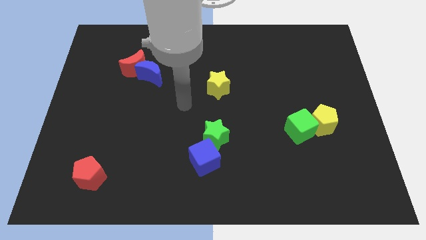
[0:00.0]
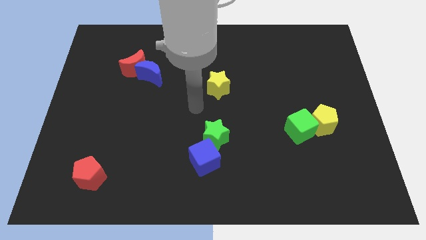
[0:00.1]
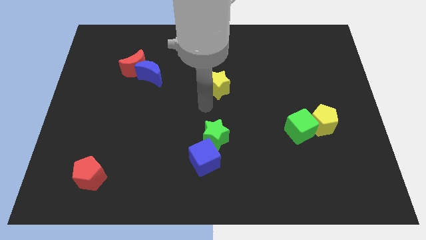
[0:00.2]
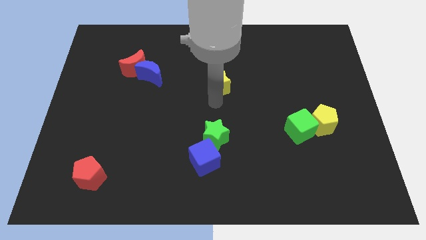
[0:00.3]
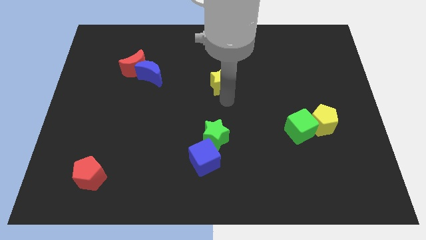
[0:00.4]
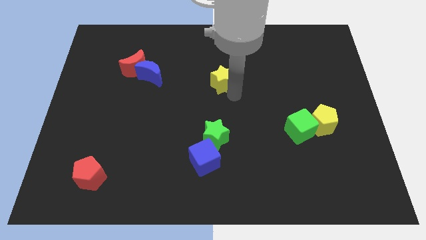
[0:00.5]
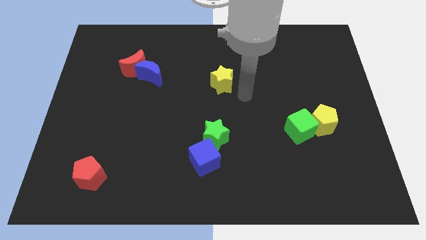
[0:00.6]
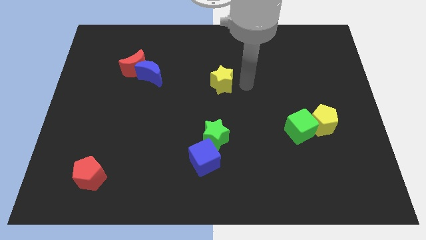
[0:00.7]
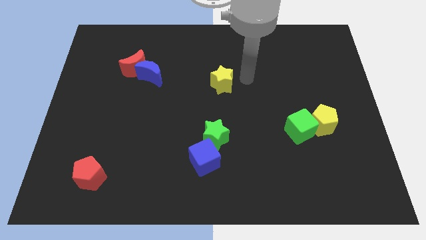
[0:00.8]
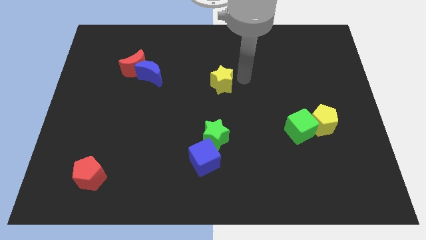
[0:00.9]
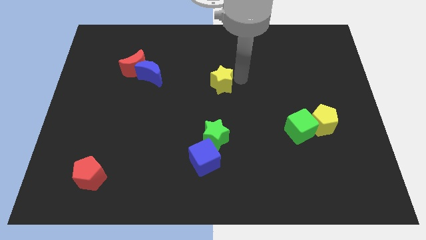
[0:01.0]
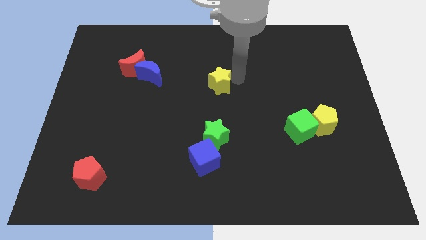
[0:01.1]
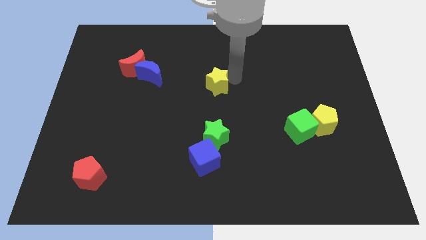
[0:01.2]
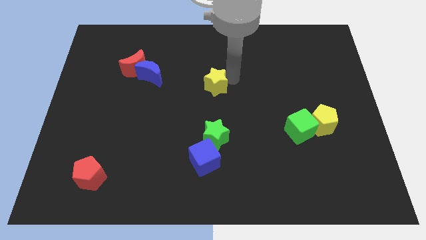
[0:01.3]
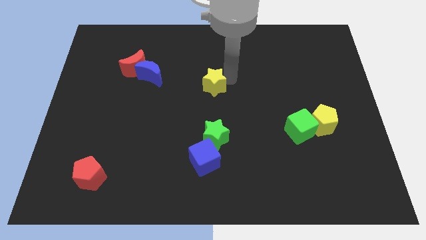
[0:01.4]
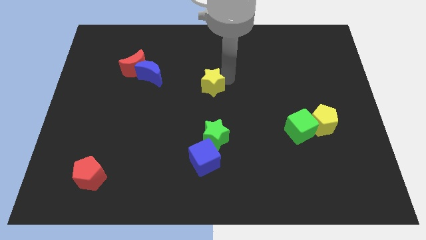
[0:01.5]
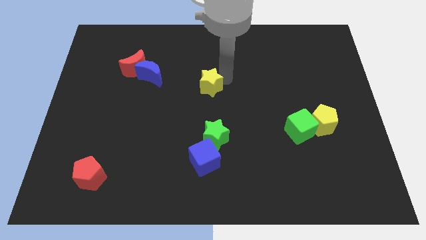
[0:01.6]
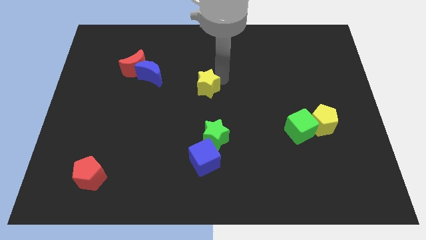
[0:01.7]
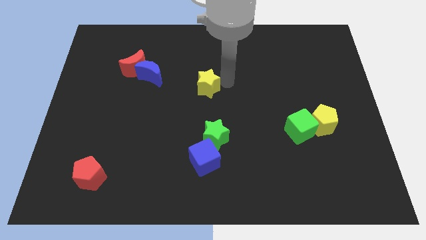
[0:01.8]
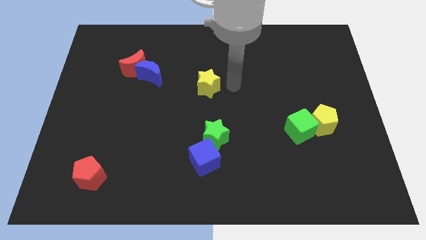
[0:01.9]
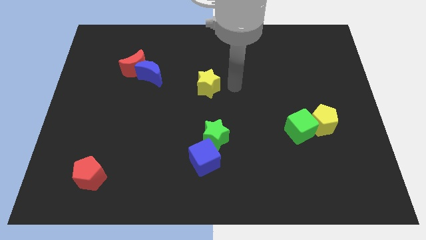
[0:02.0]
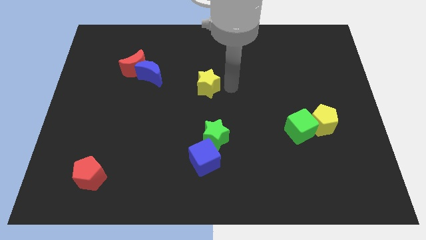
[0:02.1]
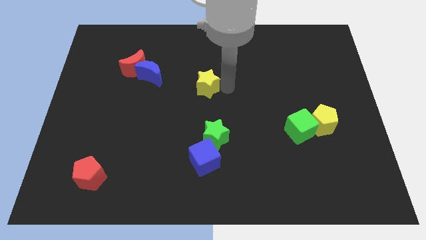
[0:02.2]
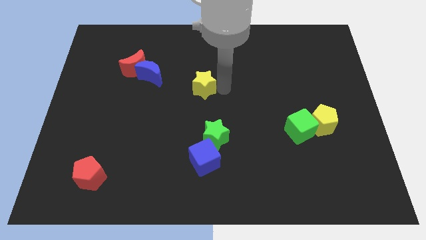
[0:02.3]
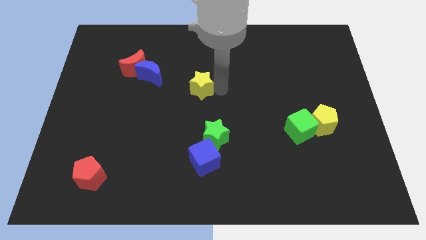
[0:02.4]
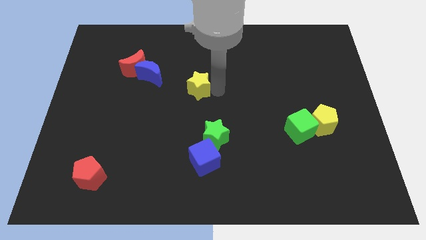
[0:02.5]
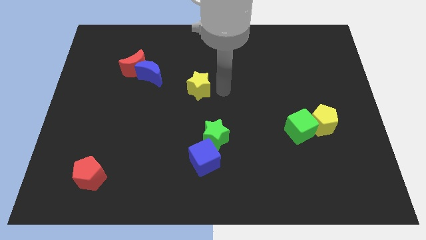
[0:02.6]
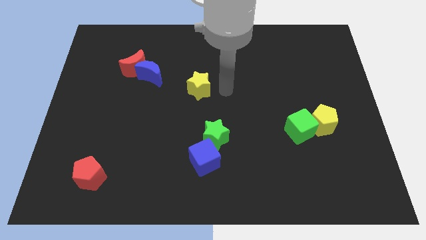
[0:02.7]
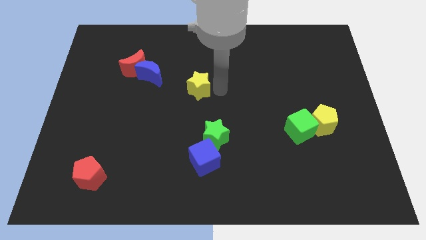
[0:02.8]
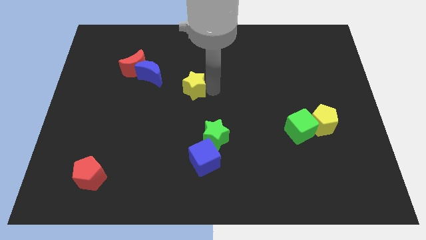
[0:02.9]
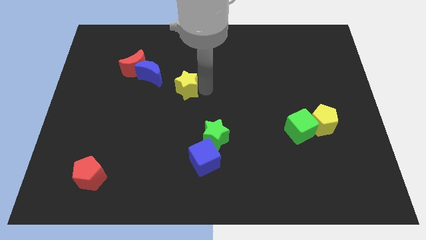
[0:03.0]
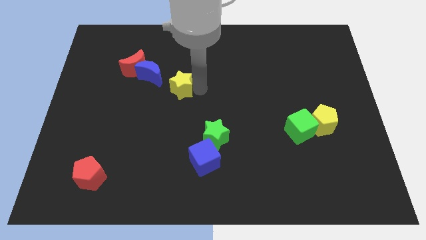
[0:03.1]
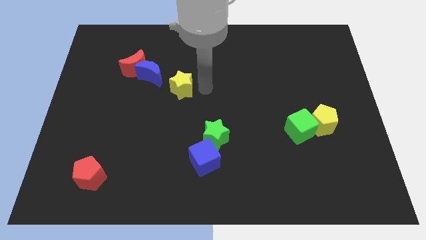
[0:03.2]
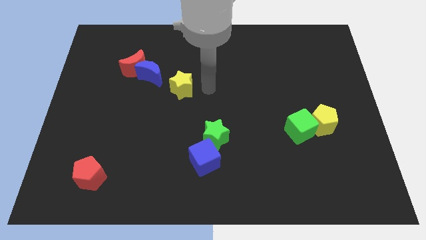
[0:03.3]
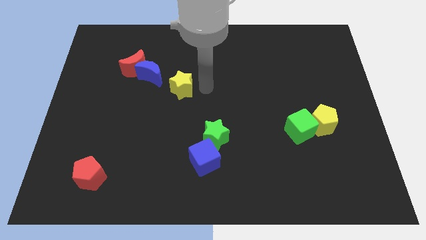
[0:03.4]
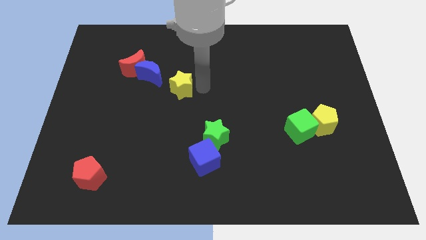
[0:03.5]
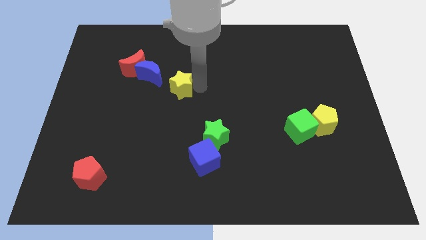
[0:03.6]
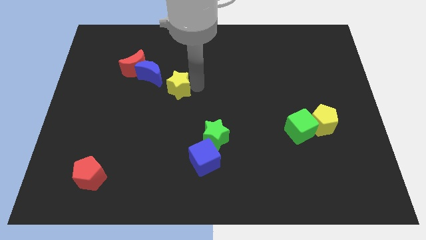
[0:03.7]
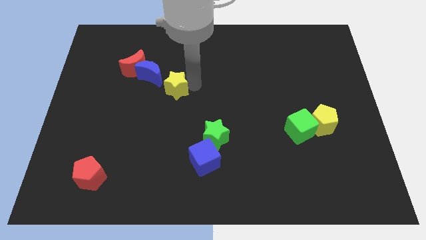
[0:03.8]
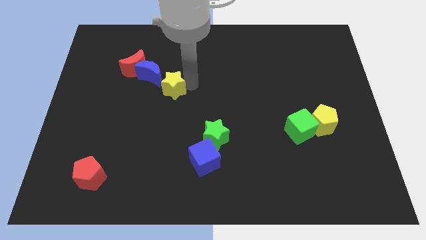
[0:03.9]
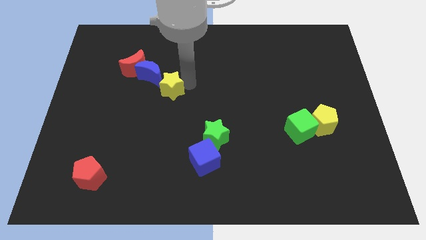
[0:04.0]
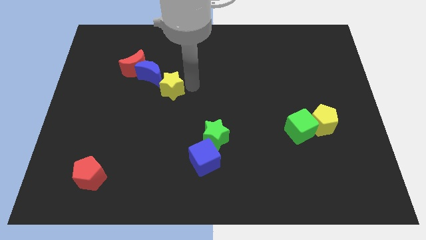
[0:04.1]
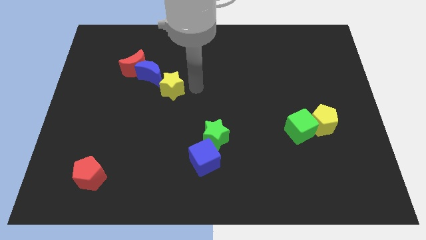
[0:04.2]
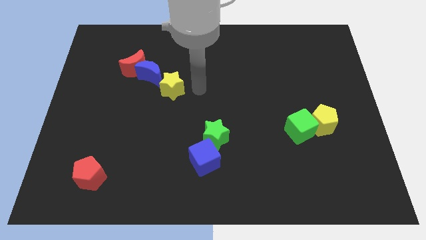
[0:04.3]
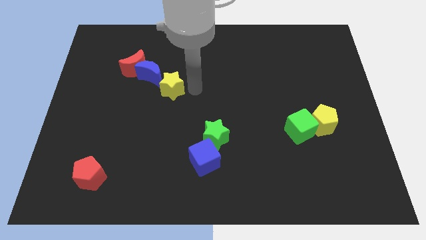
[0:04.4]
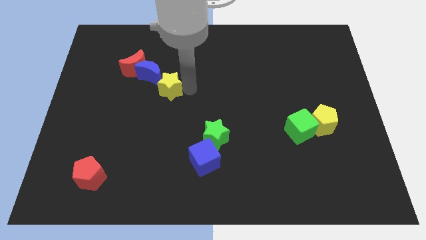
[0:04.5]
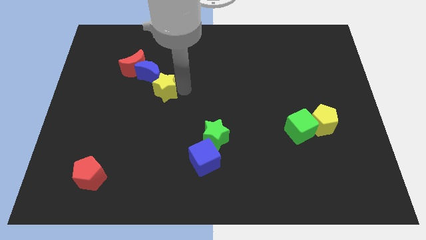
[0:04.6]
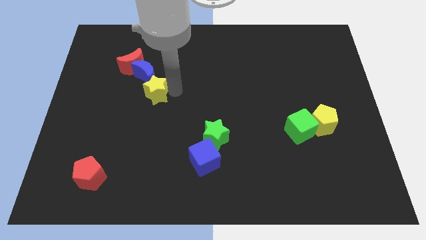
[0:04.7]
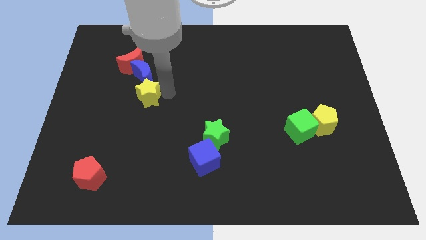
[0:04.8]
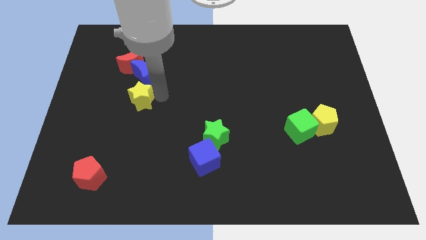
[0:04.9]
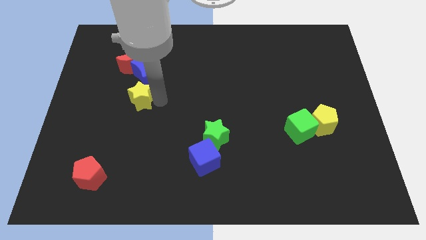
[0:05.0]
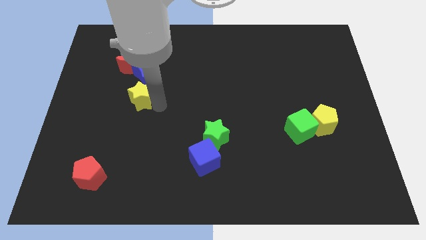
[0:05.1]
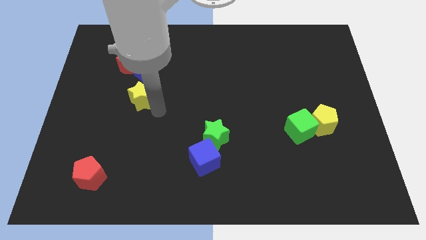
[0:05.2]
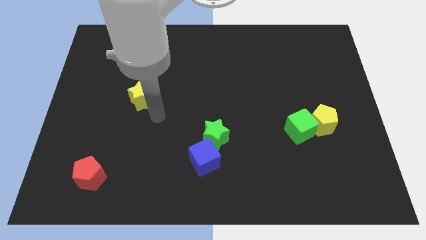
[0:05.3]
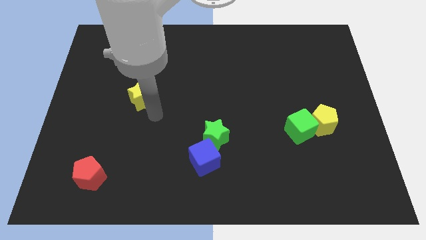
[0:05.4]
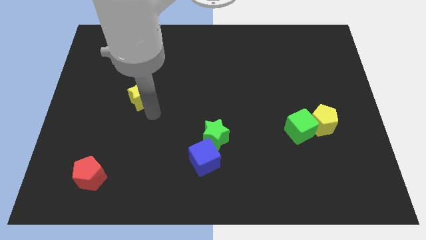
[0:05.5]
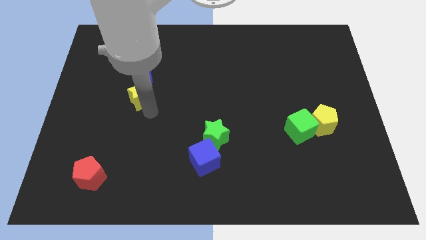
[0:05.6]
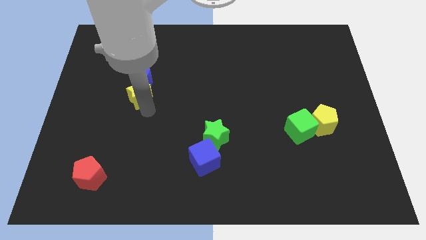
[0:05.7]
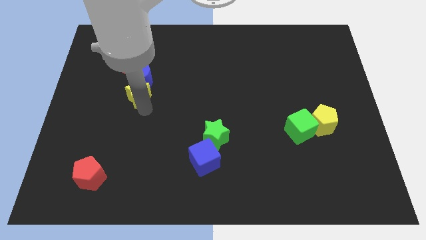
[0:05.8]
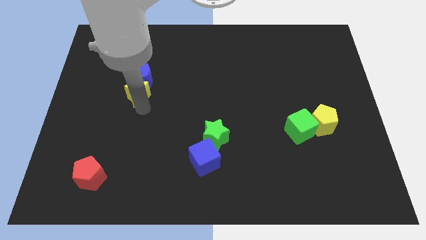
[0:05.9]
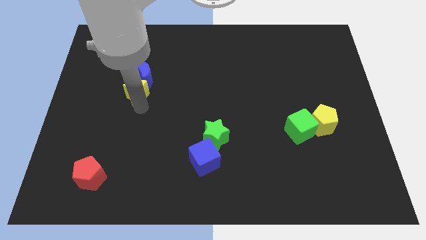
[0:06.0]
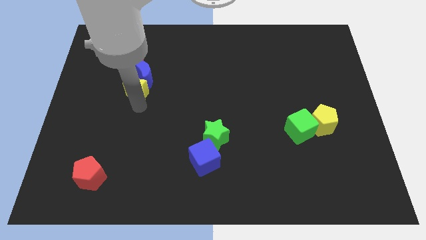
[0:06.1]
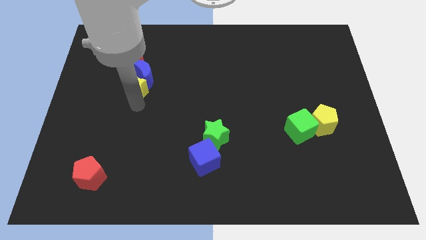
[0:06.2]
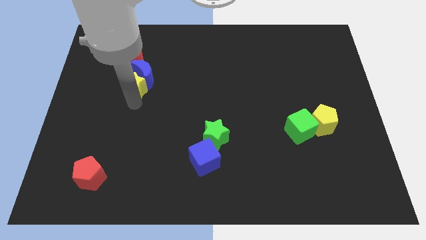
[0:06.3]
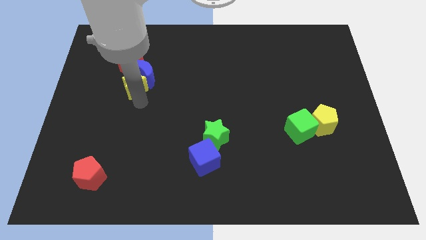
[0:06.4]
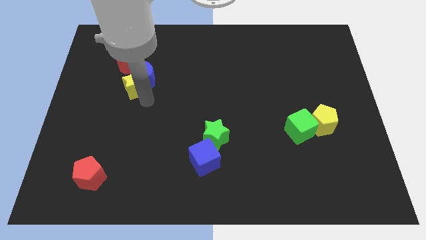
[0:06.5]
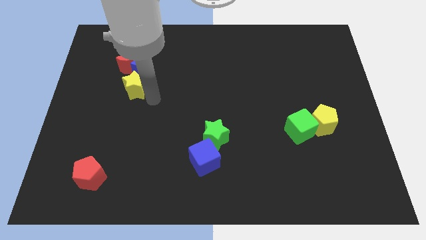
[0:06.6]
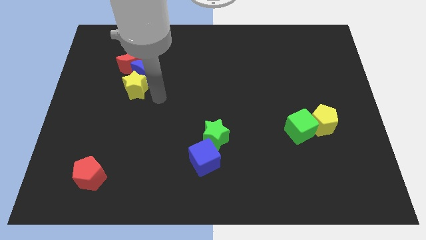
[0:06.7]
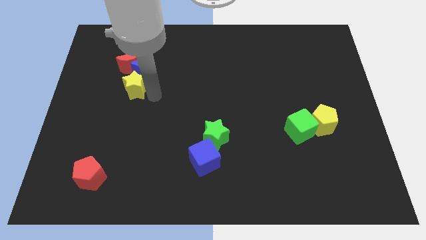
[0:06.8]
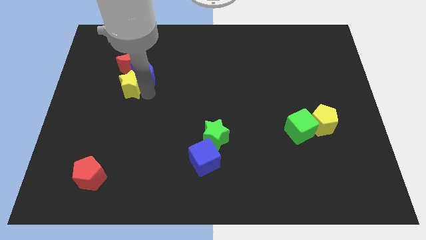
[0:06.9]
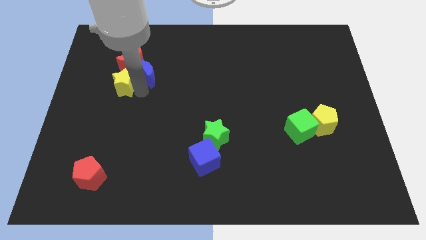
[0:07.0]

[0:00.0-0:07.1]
put the yellow star diagonally down and to the left of the red moon

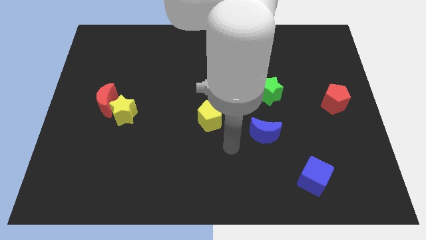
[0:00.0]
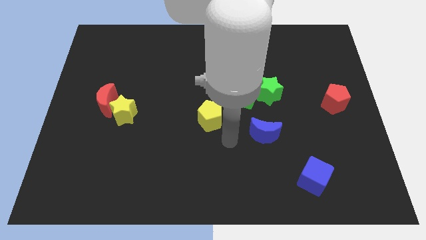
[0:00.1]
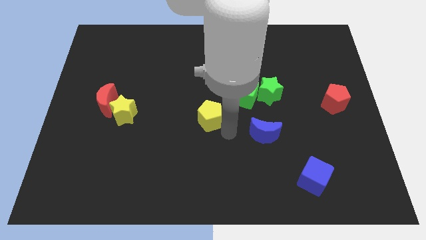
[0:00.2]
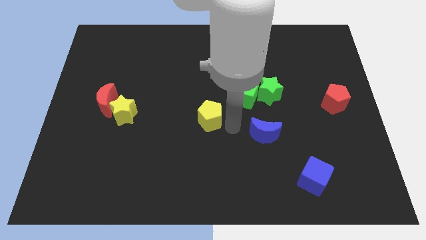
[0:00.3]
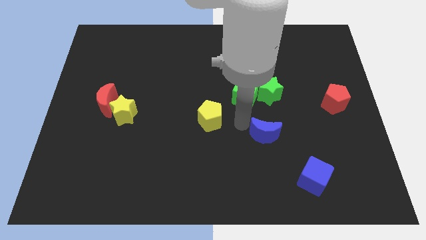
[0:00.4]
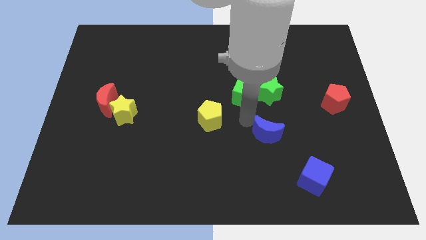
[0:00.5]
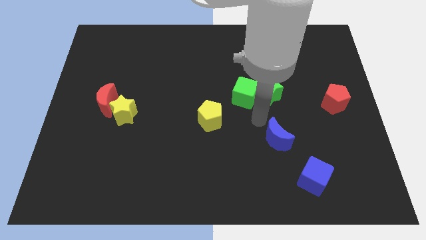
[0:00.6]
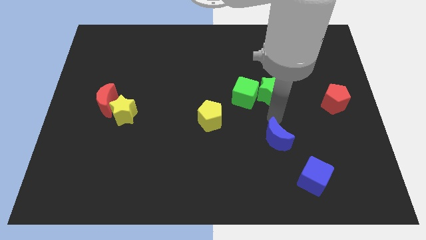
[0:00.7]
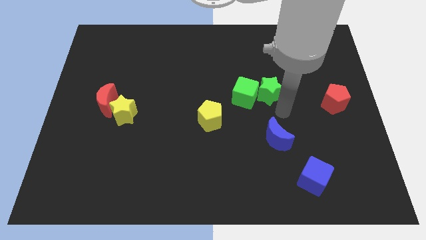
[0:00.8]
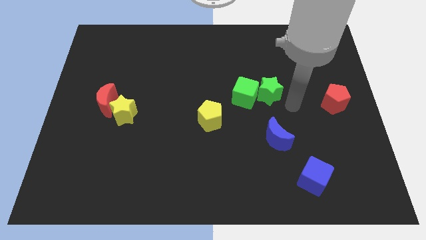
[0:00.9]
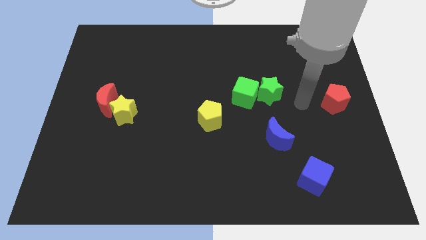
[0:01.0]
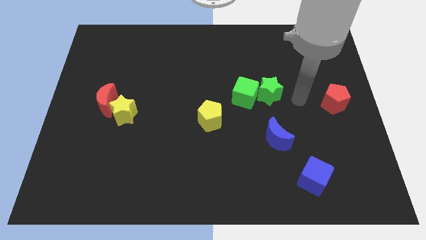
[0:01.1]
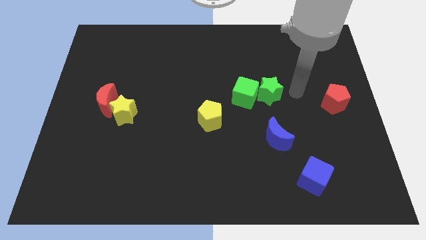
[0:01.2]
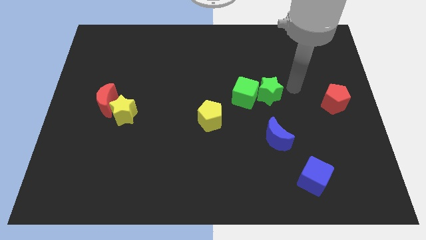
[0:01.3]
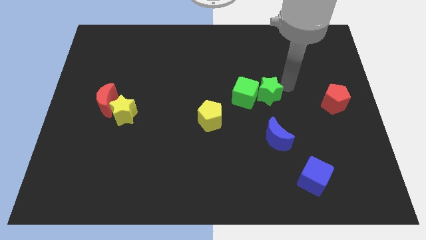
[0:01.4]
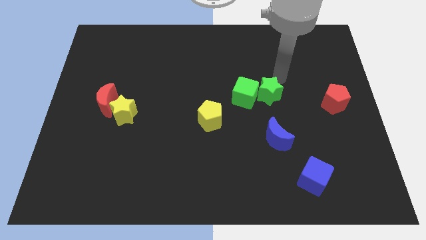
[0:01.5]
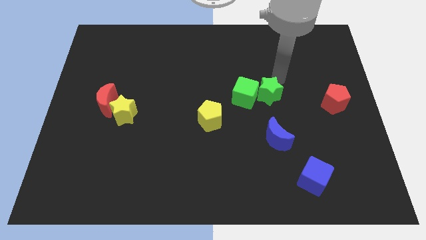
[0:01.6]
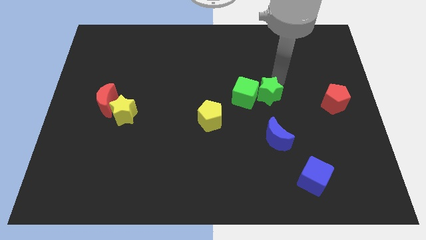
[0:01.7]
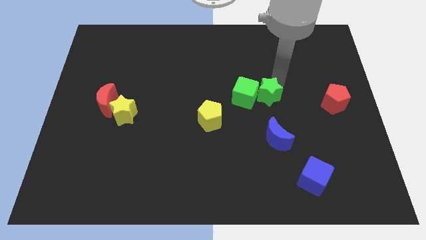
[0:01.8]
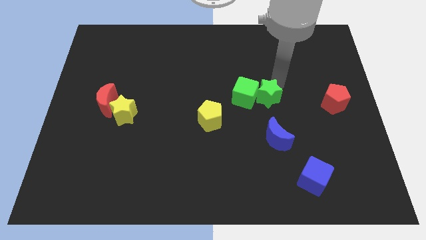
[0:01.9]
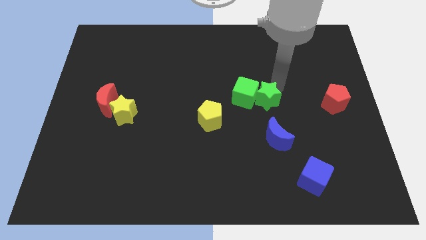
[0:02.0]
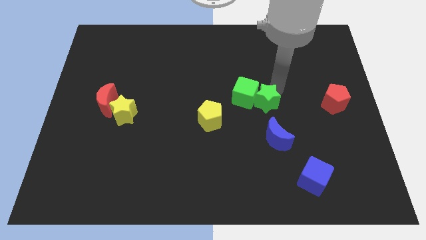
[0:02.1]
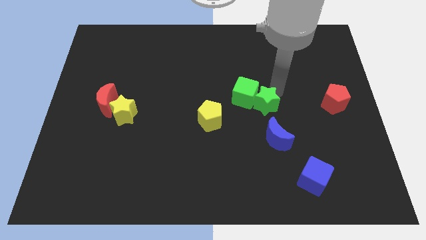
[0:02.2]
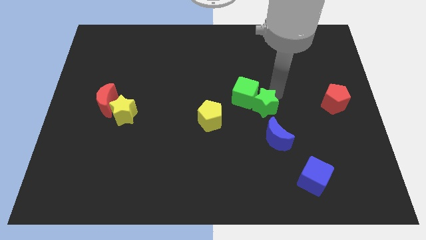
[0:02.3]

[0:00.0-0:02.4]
move the green star to the bottom side of the green cube
